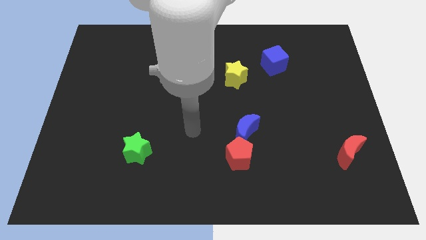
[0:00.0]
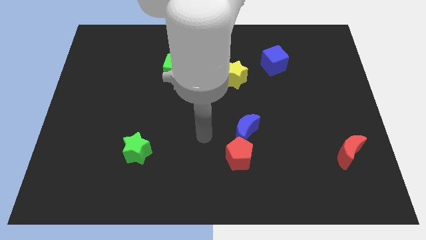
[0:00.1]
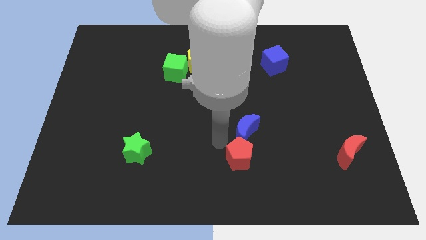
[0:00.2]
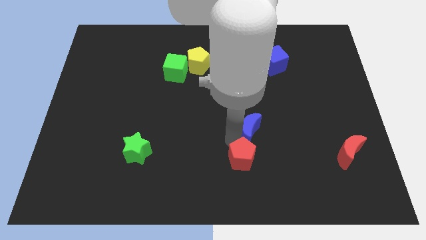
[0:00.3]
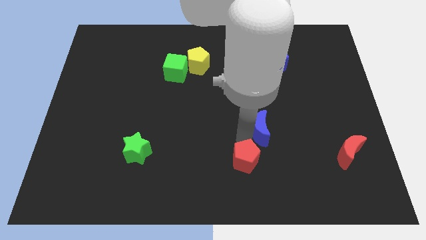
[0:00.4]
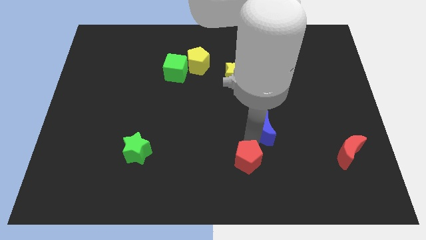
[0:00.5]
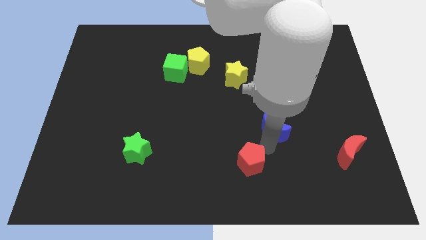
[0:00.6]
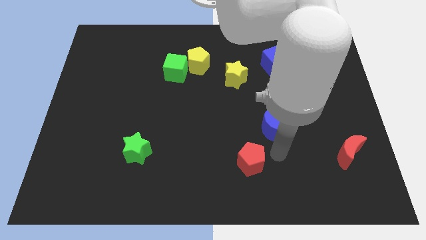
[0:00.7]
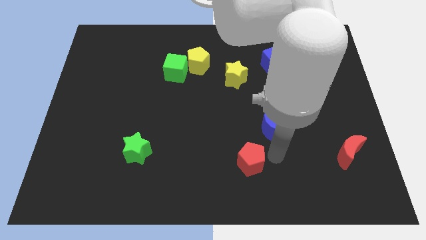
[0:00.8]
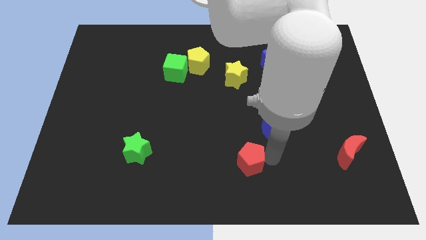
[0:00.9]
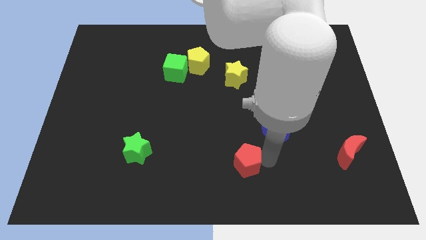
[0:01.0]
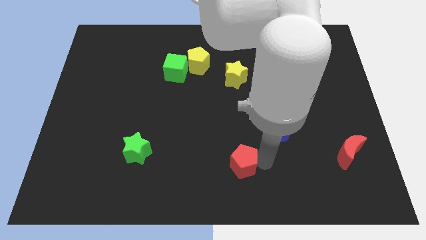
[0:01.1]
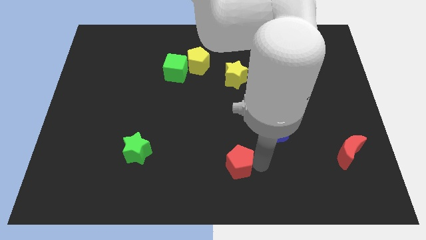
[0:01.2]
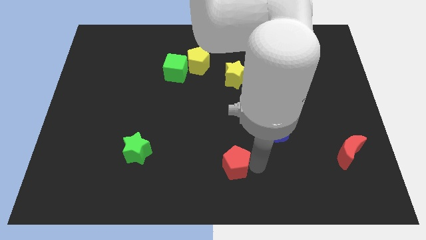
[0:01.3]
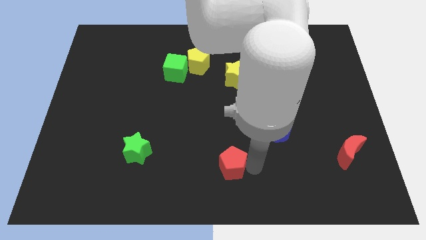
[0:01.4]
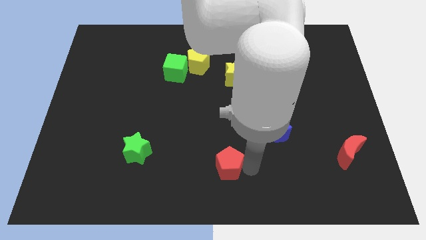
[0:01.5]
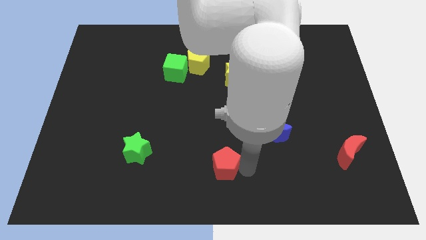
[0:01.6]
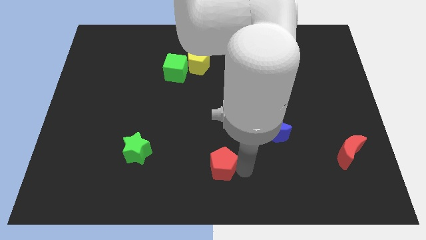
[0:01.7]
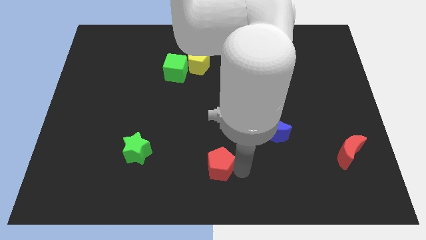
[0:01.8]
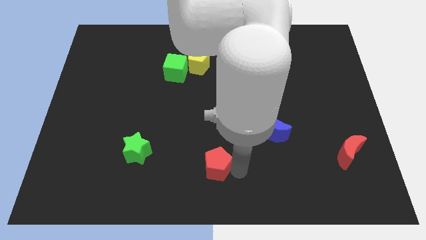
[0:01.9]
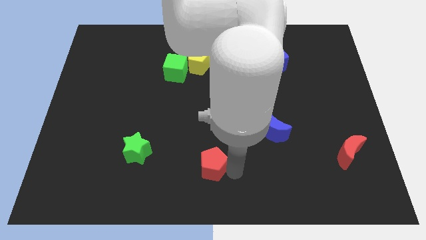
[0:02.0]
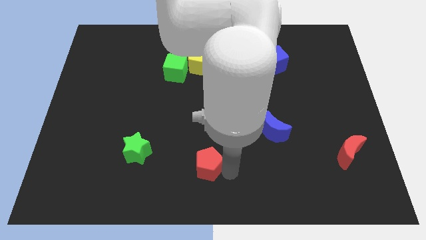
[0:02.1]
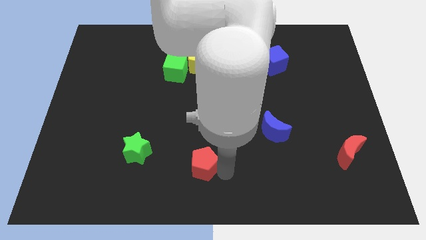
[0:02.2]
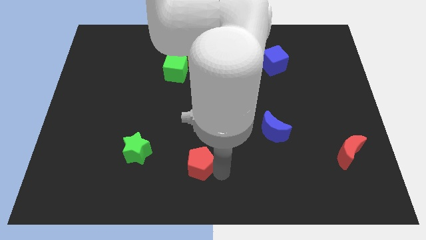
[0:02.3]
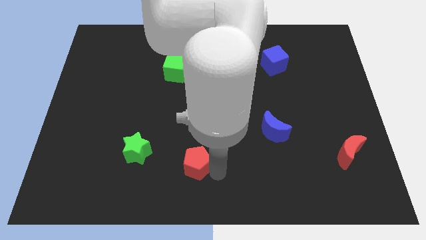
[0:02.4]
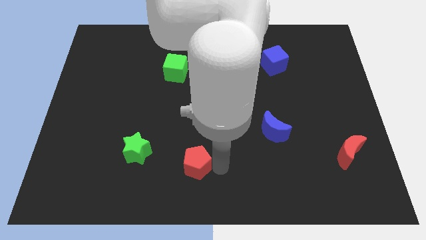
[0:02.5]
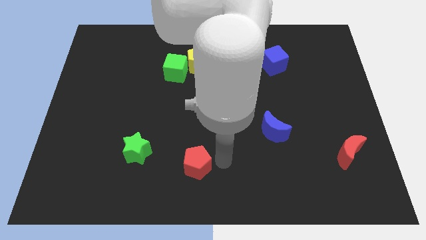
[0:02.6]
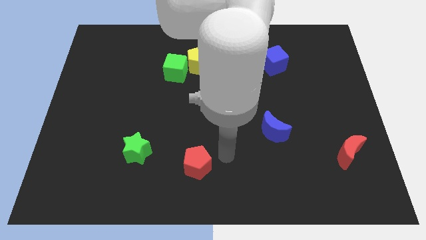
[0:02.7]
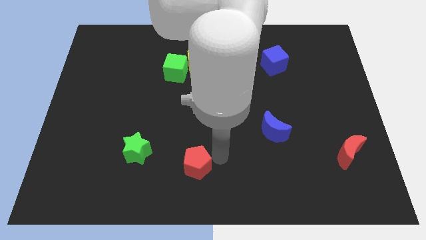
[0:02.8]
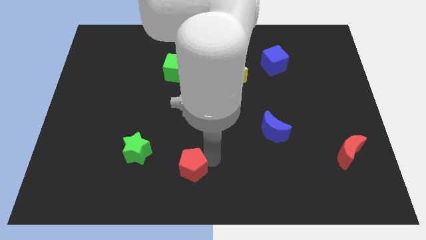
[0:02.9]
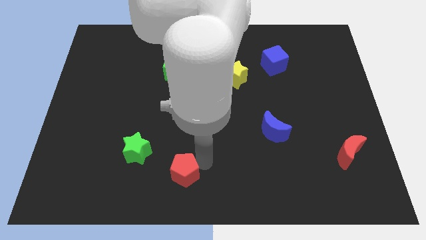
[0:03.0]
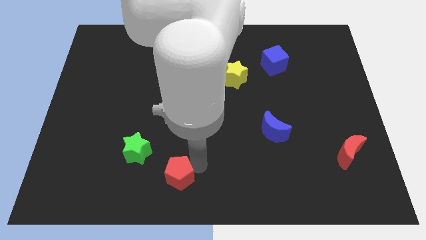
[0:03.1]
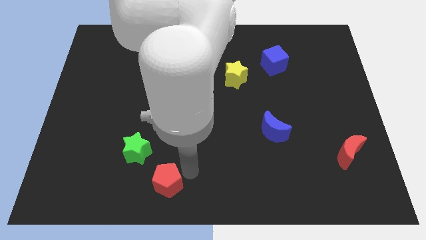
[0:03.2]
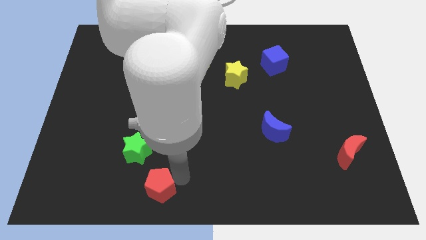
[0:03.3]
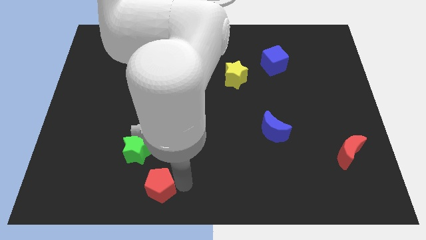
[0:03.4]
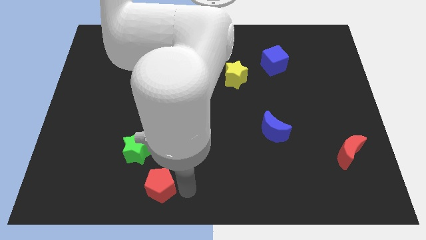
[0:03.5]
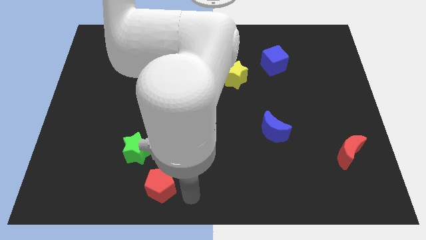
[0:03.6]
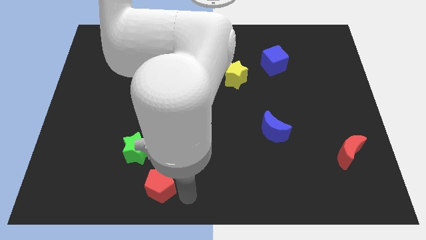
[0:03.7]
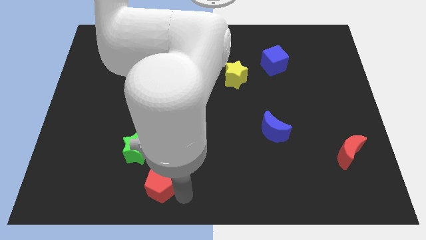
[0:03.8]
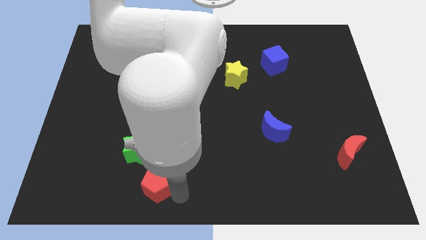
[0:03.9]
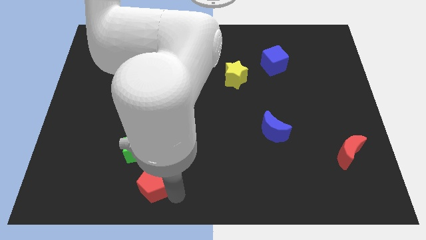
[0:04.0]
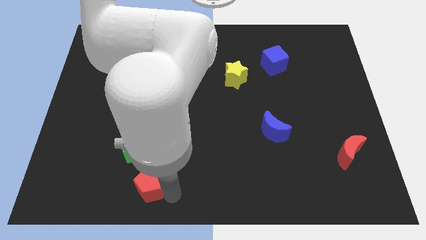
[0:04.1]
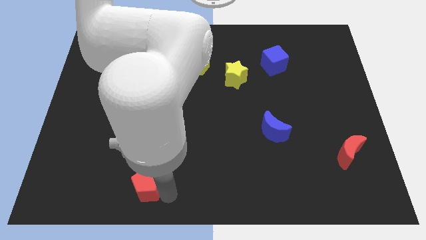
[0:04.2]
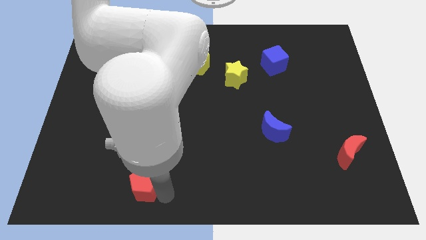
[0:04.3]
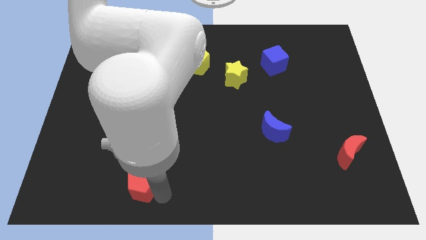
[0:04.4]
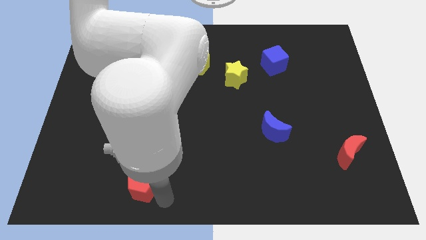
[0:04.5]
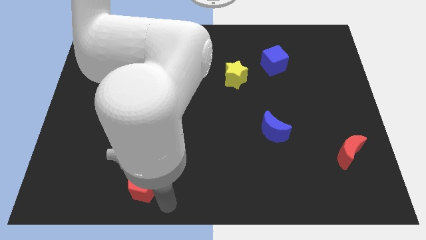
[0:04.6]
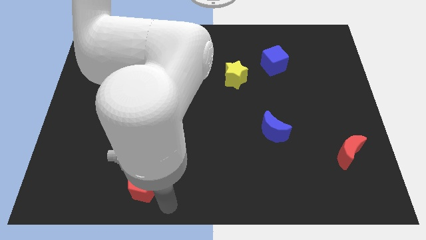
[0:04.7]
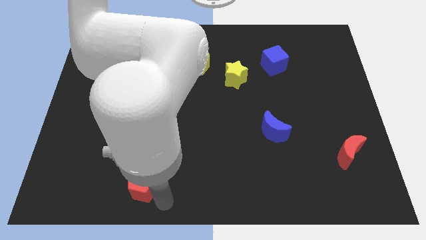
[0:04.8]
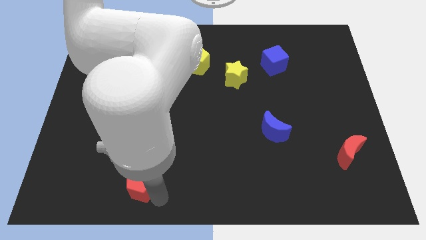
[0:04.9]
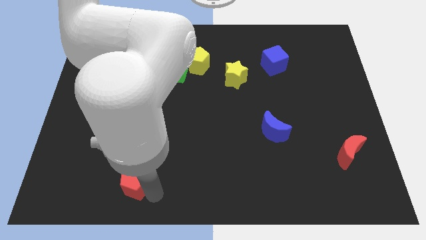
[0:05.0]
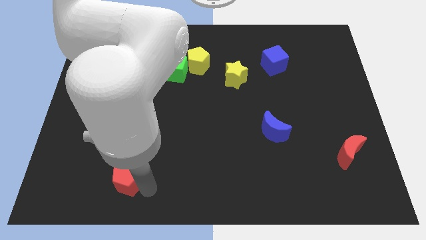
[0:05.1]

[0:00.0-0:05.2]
slide the red pentagon diagonally down and to the left of the green star

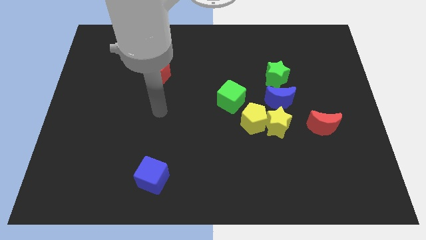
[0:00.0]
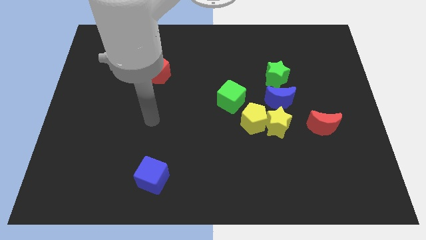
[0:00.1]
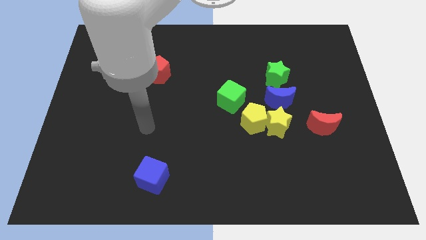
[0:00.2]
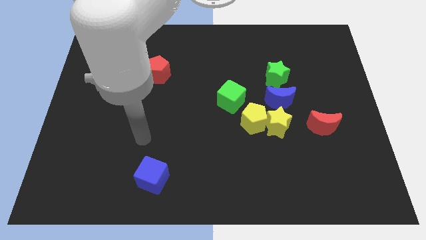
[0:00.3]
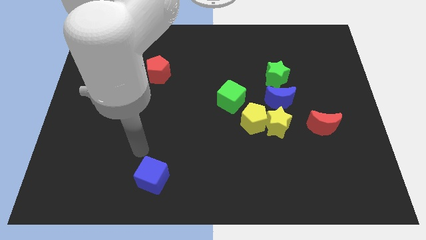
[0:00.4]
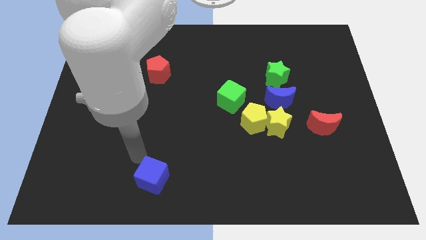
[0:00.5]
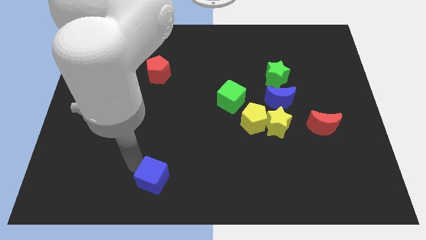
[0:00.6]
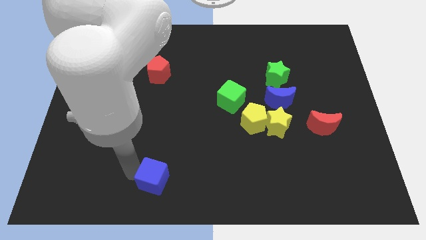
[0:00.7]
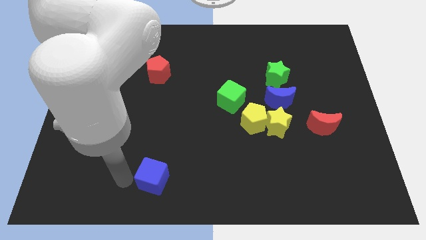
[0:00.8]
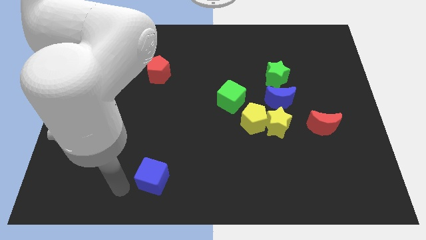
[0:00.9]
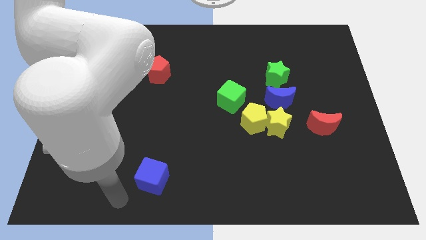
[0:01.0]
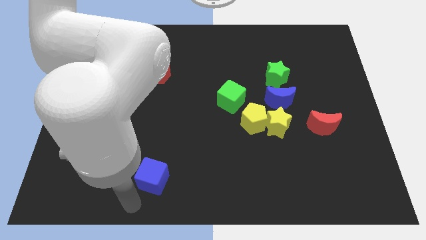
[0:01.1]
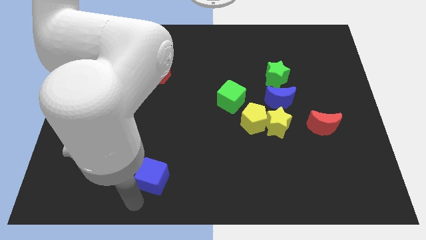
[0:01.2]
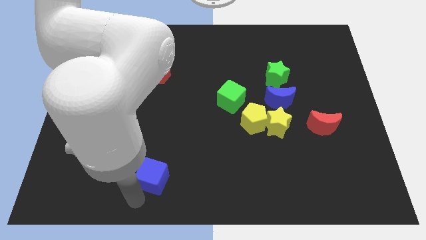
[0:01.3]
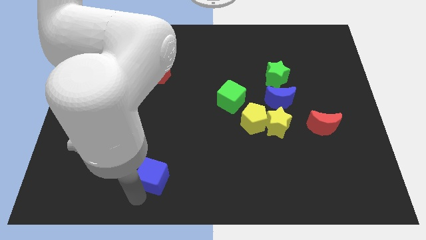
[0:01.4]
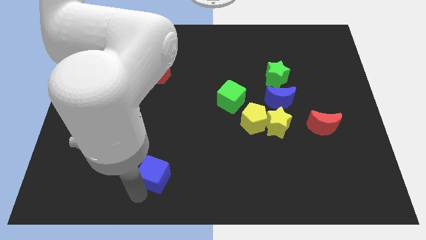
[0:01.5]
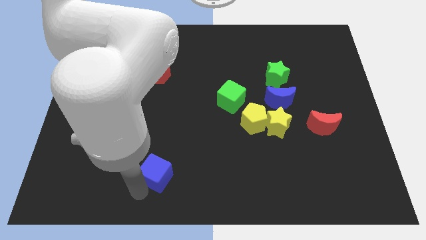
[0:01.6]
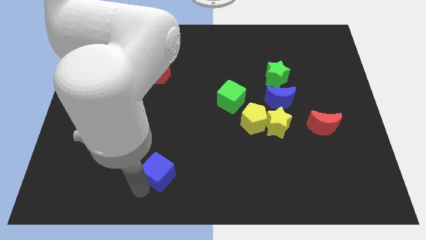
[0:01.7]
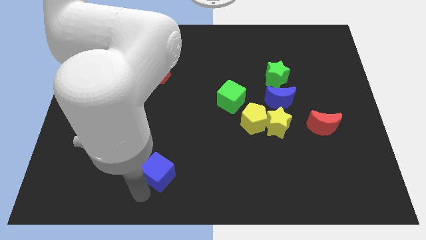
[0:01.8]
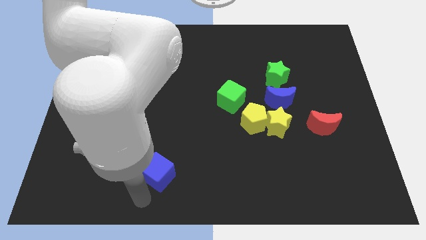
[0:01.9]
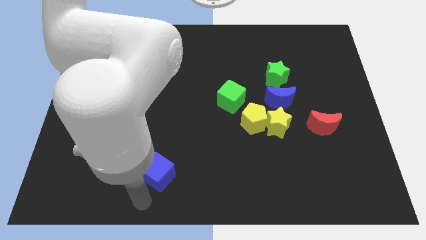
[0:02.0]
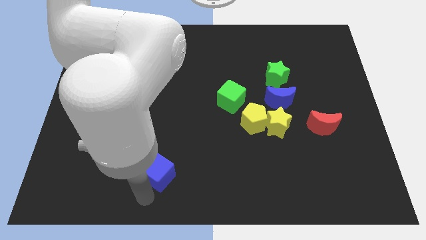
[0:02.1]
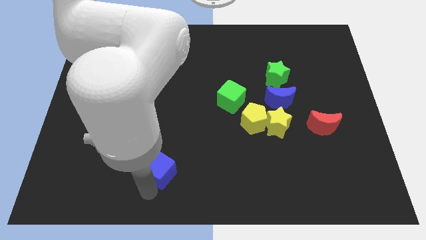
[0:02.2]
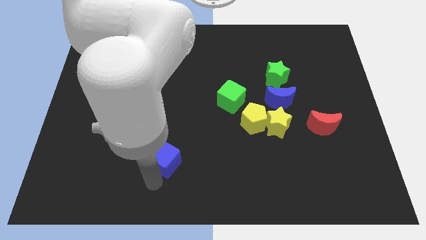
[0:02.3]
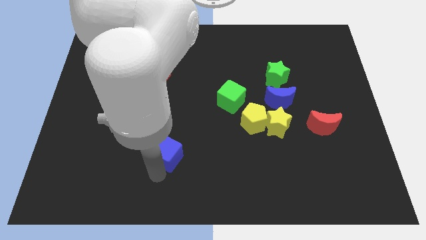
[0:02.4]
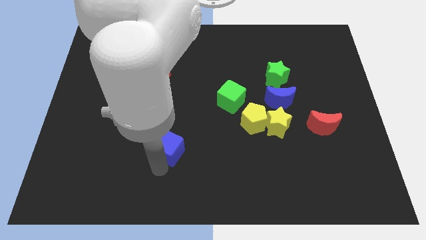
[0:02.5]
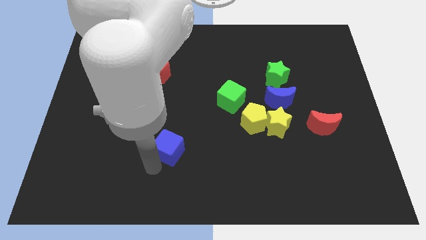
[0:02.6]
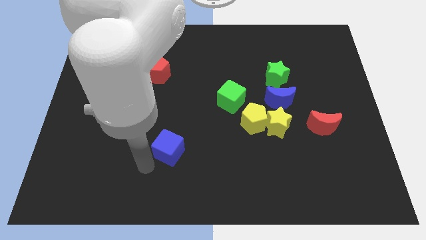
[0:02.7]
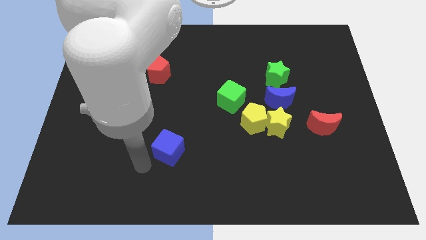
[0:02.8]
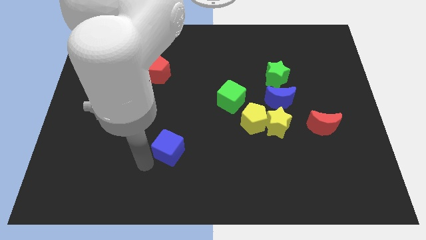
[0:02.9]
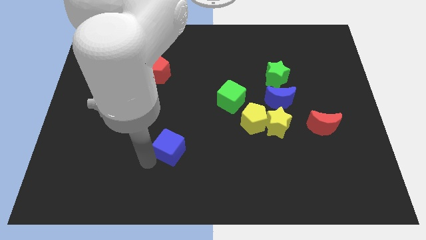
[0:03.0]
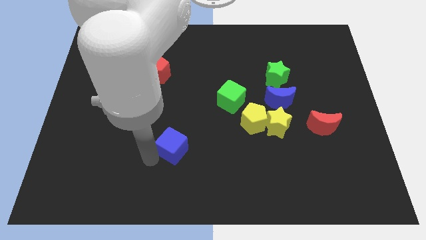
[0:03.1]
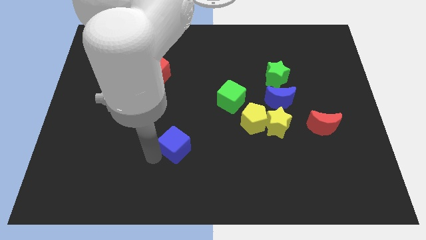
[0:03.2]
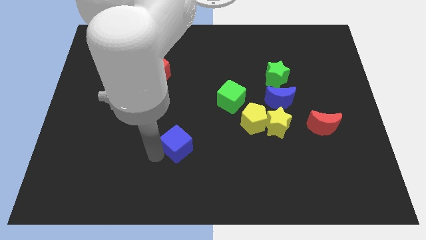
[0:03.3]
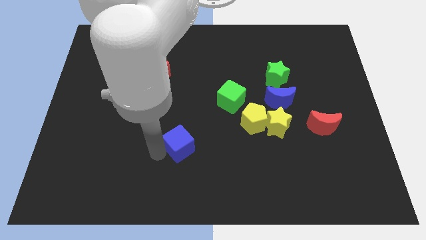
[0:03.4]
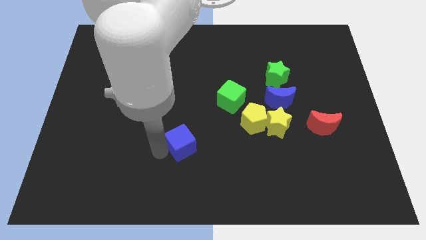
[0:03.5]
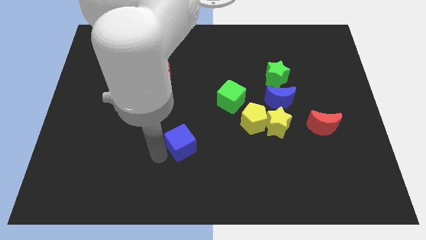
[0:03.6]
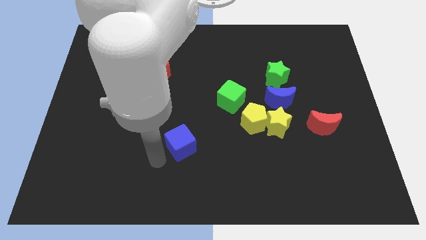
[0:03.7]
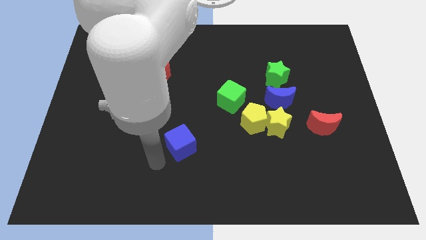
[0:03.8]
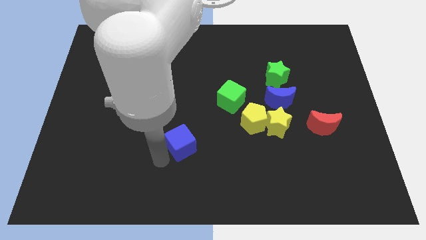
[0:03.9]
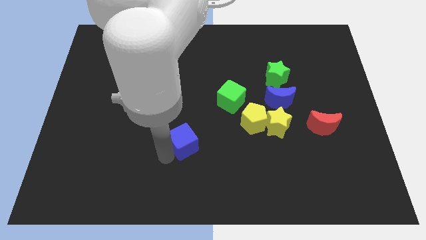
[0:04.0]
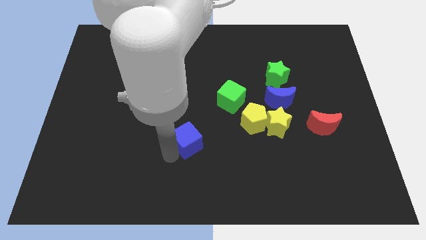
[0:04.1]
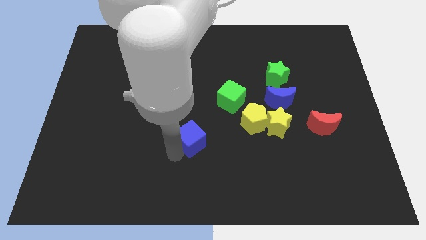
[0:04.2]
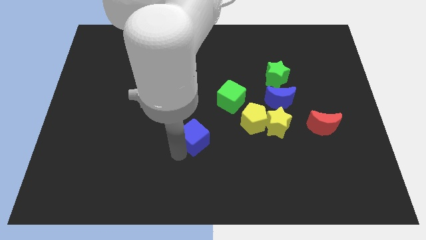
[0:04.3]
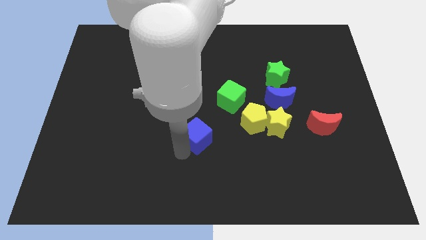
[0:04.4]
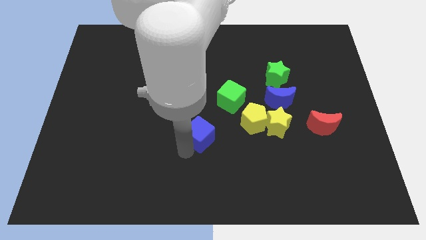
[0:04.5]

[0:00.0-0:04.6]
move the blue cube to the bottom left side of the green cube
